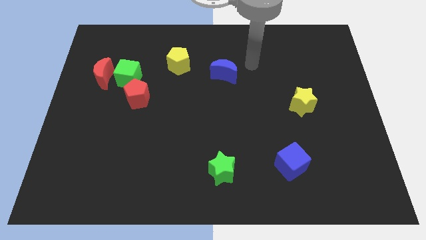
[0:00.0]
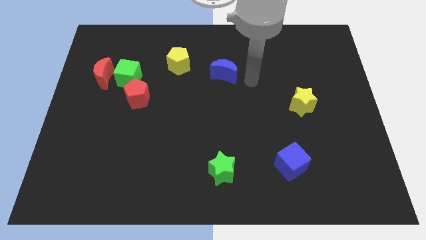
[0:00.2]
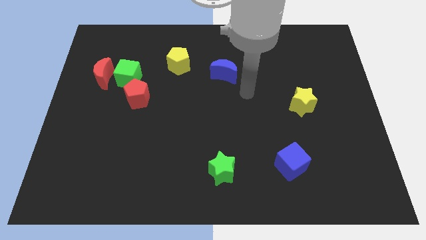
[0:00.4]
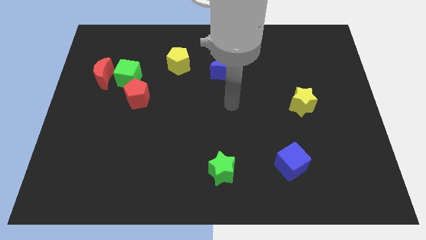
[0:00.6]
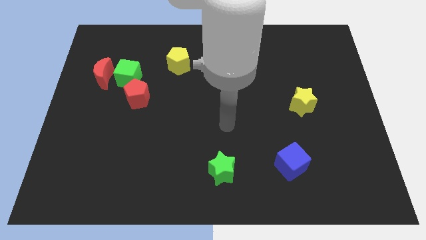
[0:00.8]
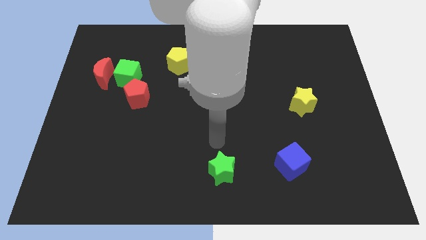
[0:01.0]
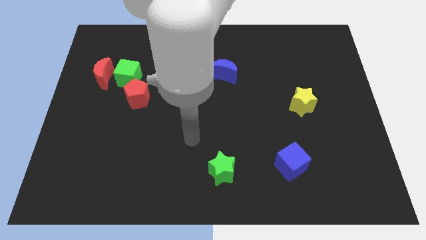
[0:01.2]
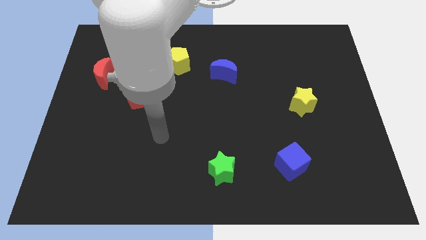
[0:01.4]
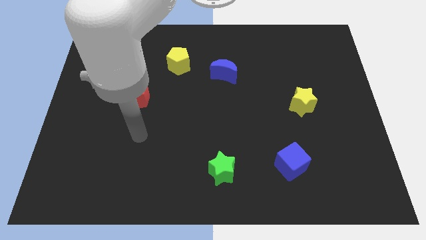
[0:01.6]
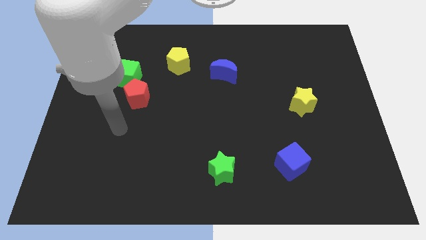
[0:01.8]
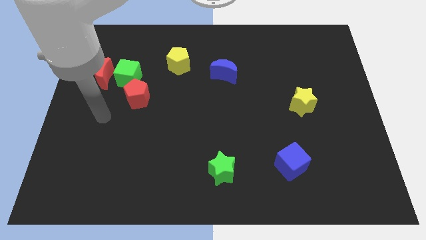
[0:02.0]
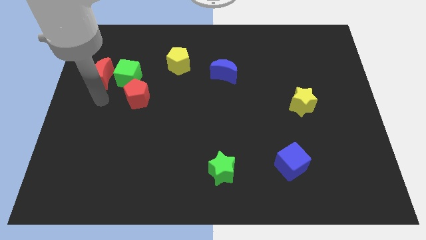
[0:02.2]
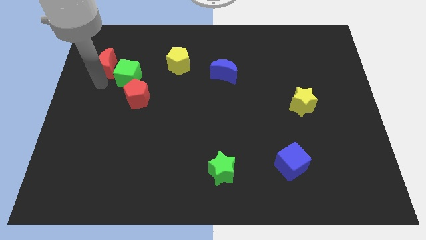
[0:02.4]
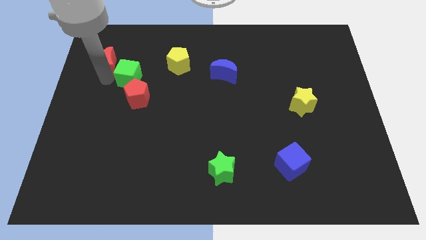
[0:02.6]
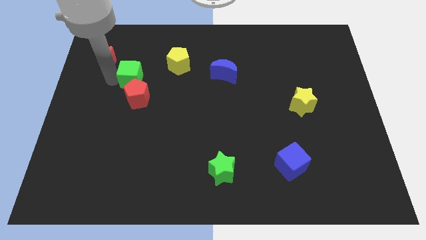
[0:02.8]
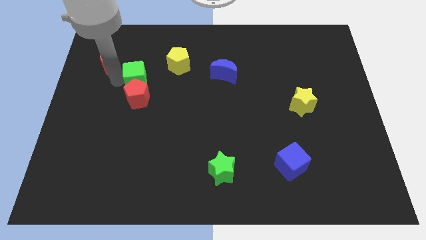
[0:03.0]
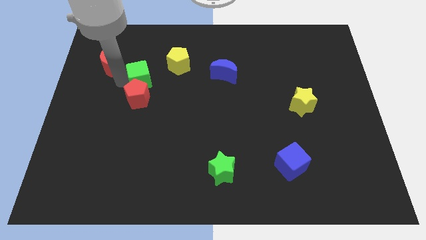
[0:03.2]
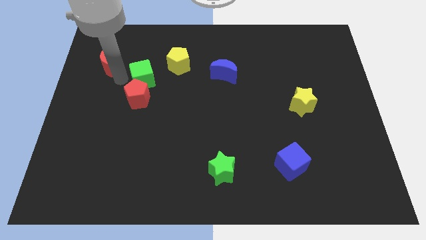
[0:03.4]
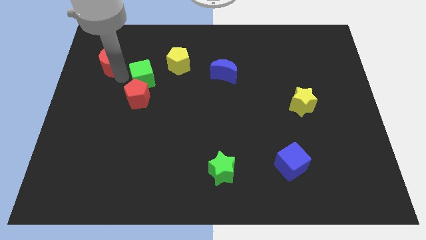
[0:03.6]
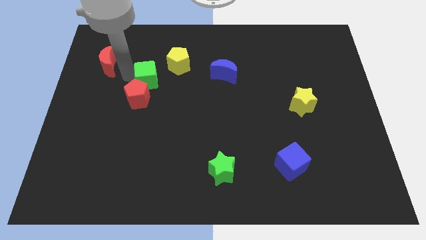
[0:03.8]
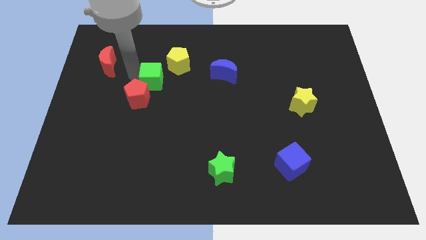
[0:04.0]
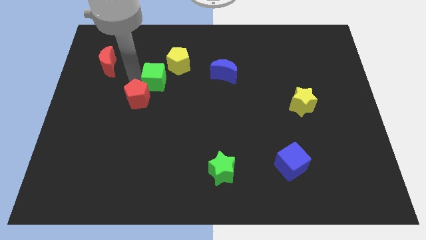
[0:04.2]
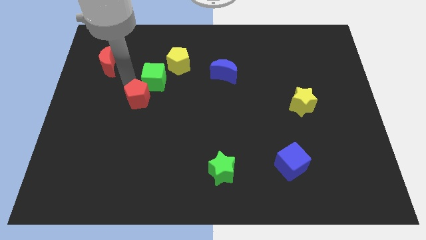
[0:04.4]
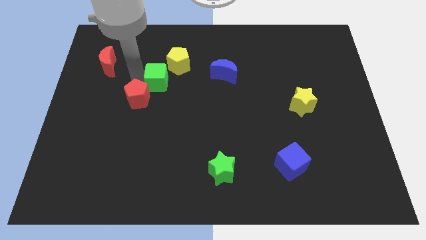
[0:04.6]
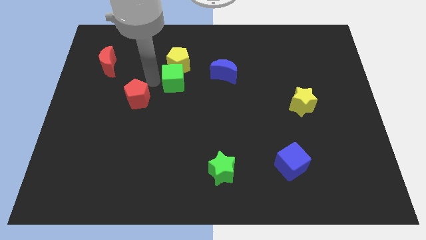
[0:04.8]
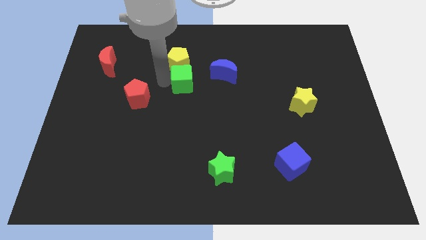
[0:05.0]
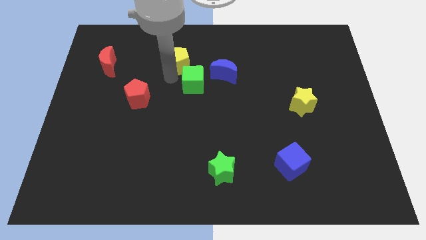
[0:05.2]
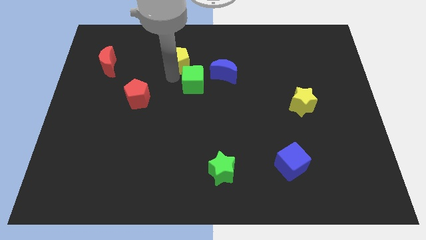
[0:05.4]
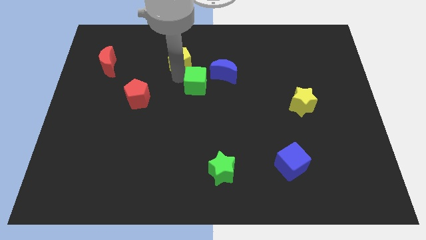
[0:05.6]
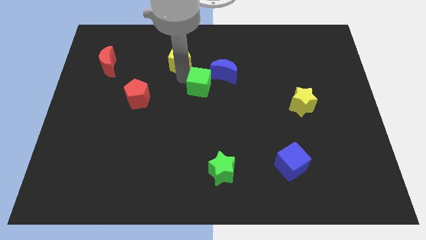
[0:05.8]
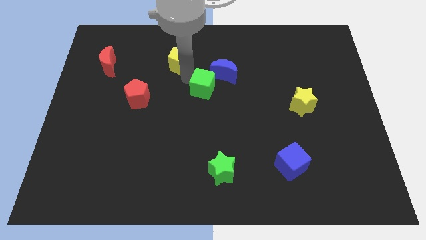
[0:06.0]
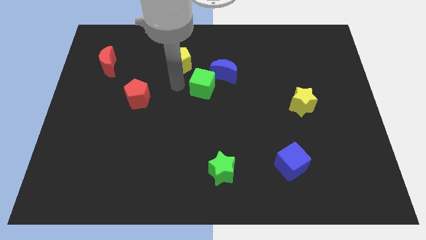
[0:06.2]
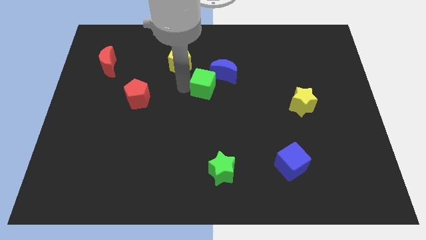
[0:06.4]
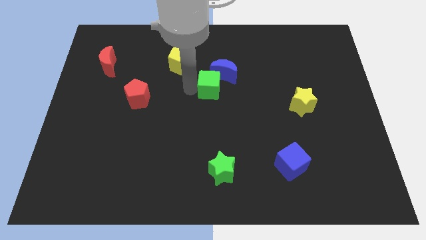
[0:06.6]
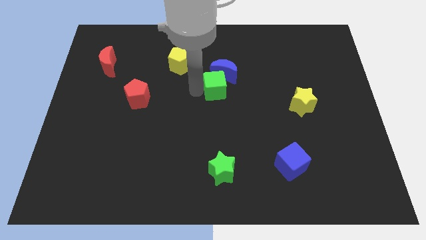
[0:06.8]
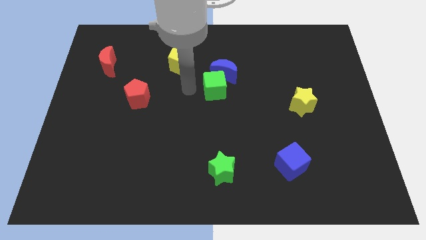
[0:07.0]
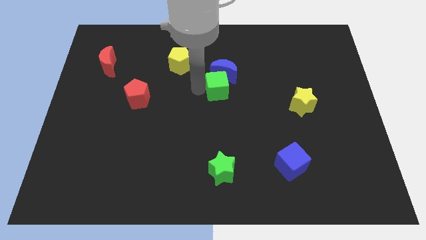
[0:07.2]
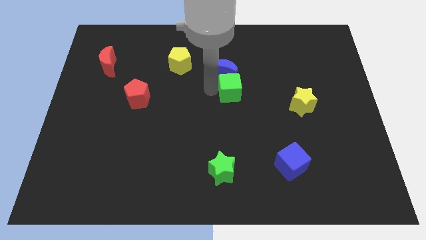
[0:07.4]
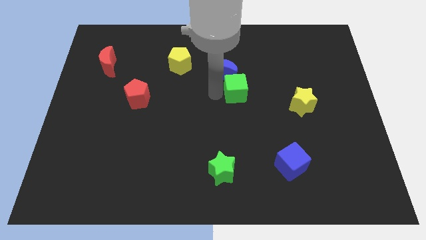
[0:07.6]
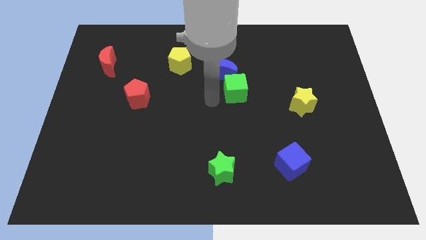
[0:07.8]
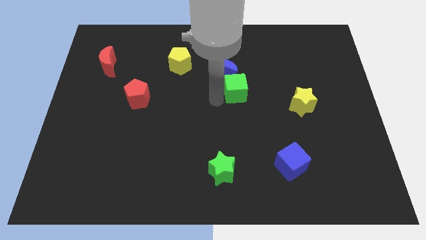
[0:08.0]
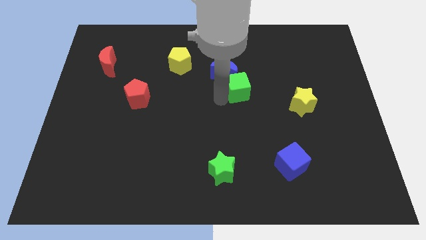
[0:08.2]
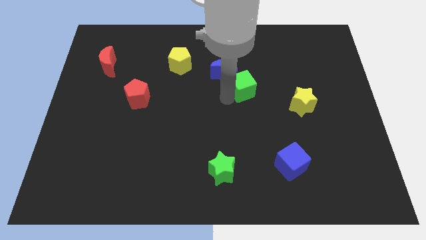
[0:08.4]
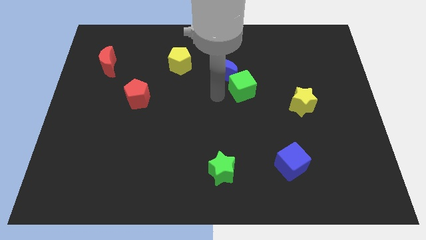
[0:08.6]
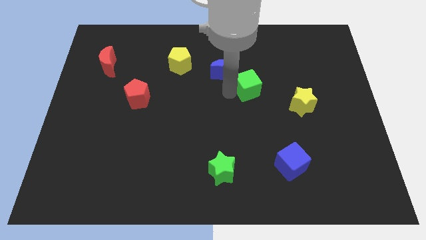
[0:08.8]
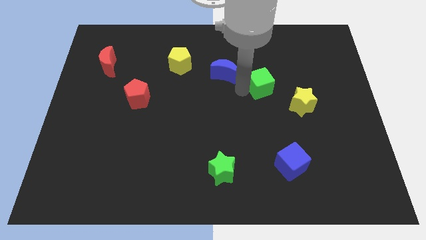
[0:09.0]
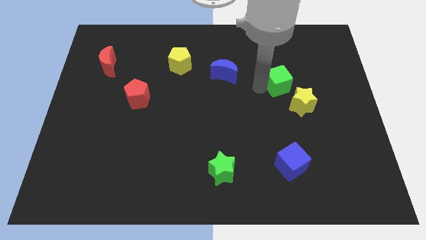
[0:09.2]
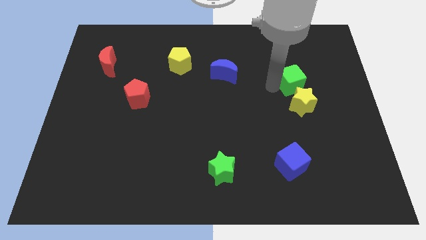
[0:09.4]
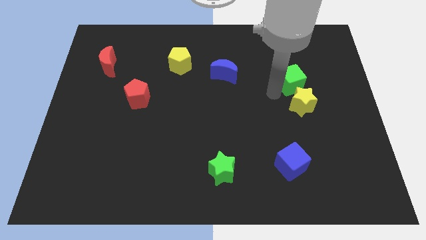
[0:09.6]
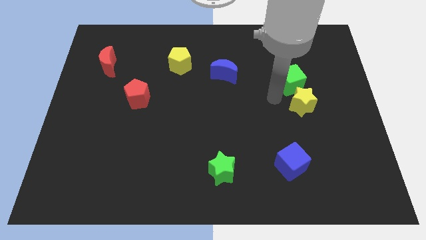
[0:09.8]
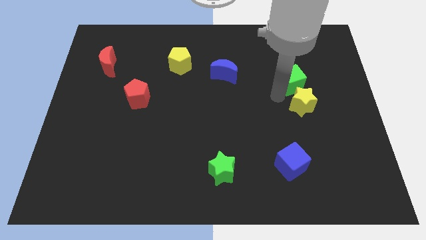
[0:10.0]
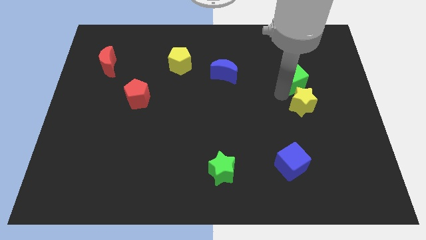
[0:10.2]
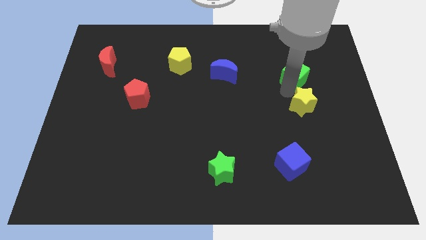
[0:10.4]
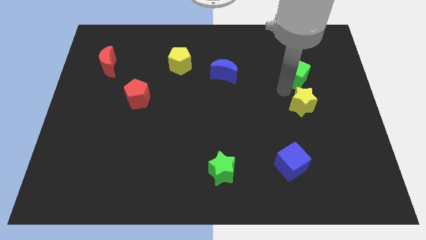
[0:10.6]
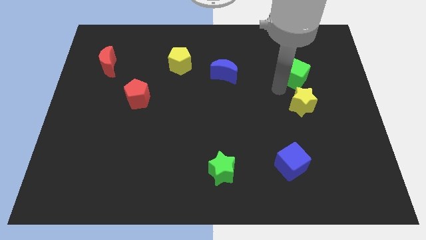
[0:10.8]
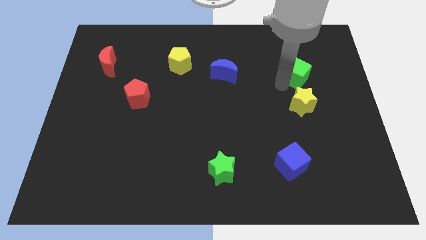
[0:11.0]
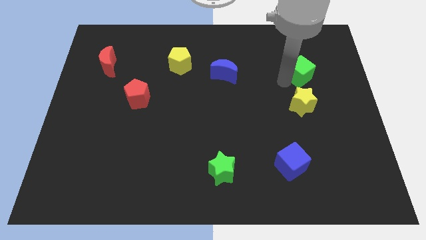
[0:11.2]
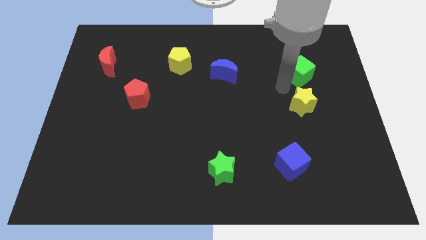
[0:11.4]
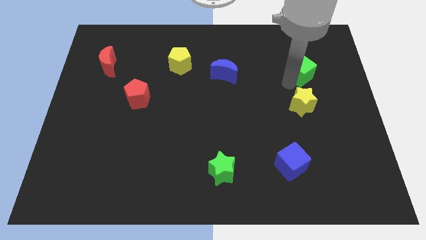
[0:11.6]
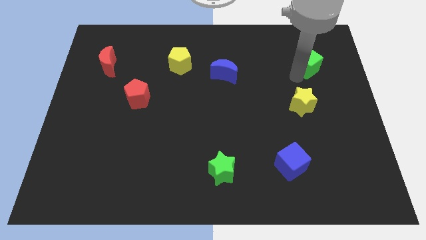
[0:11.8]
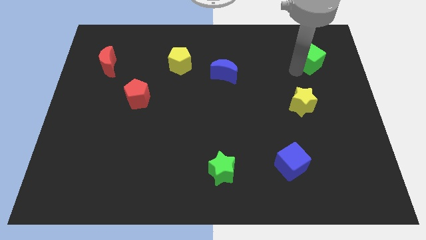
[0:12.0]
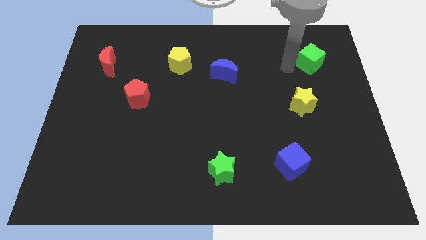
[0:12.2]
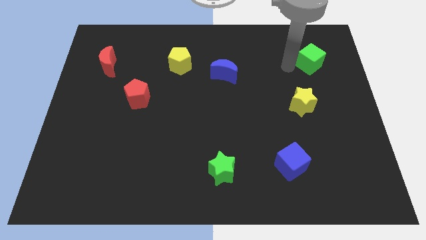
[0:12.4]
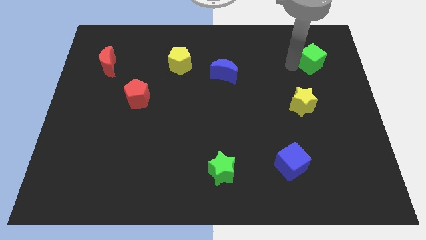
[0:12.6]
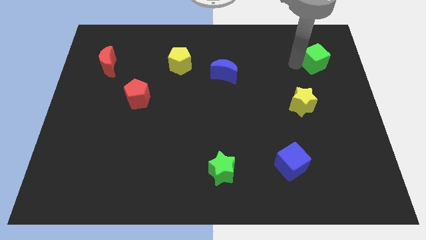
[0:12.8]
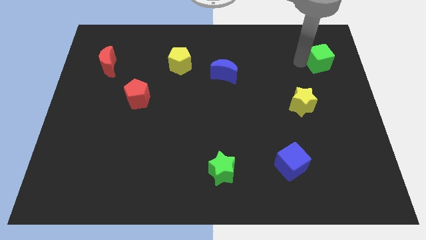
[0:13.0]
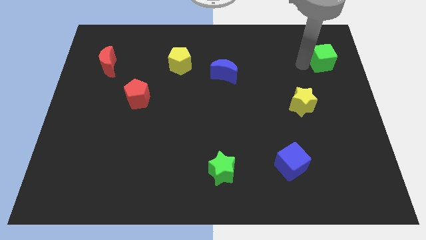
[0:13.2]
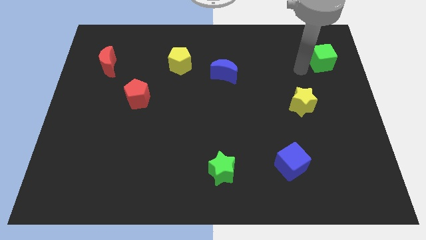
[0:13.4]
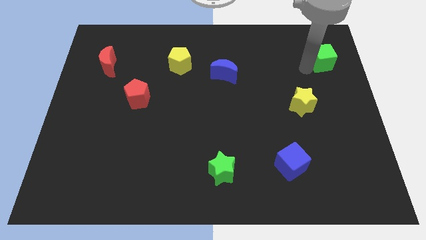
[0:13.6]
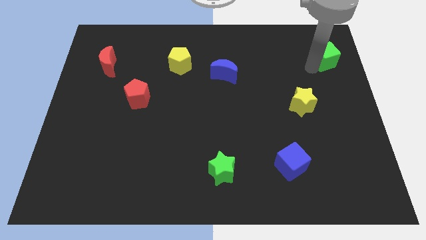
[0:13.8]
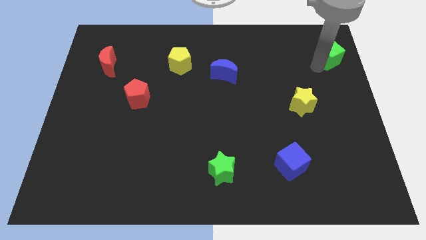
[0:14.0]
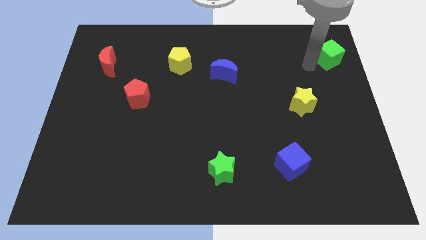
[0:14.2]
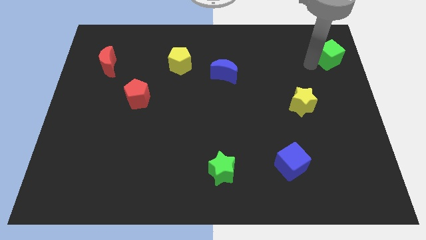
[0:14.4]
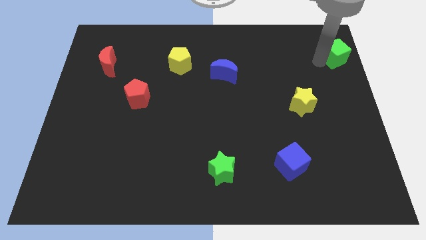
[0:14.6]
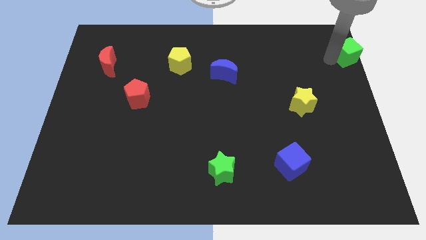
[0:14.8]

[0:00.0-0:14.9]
slide the green cube to the top right

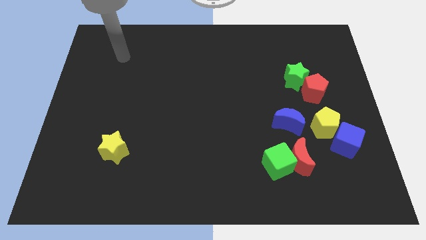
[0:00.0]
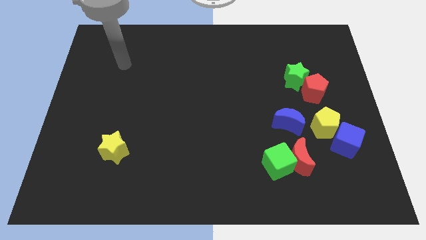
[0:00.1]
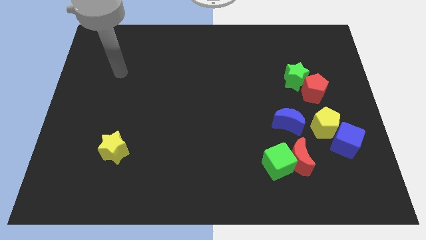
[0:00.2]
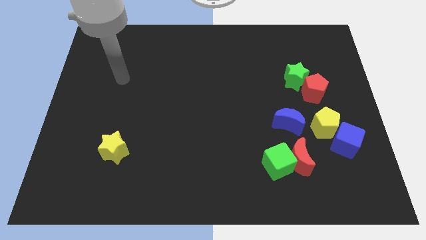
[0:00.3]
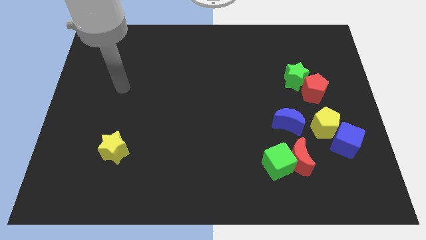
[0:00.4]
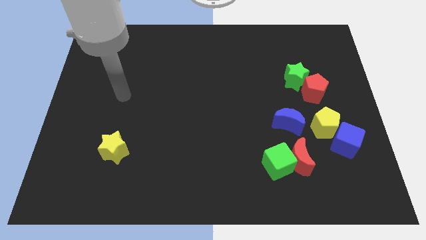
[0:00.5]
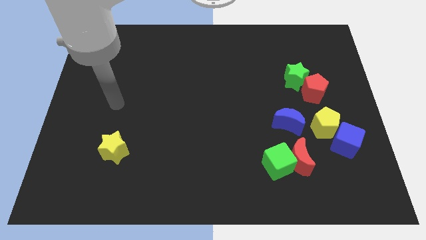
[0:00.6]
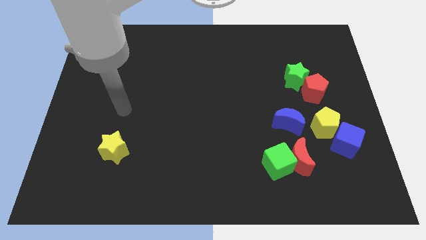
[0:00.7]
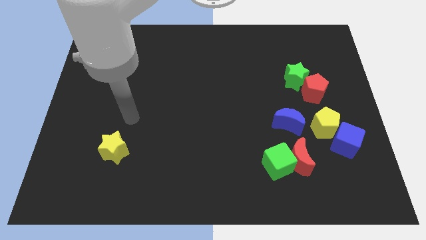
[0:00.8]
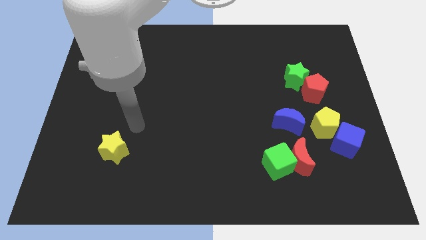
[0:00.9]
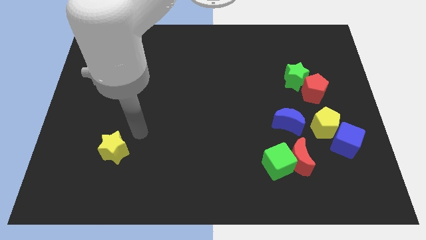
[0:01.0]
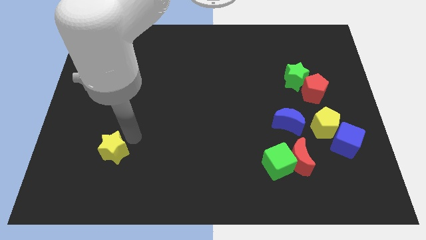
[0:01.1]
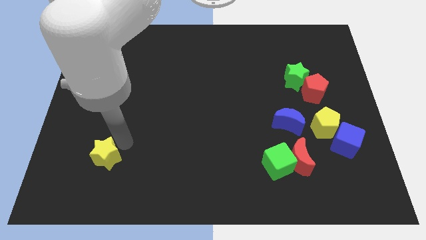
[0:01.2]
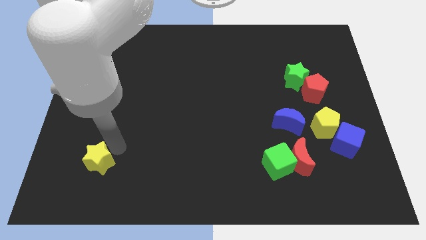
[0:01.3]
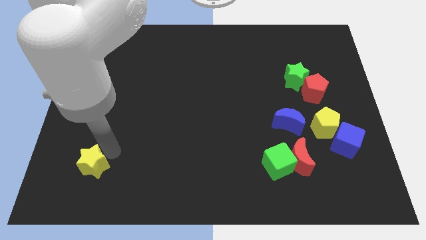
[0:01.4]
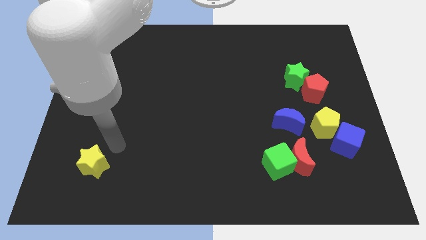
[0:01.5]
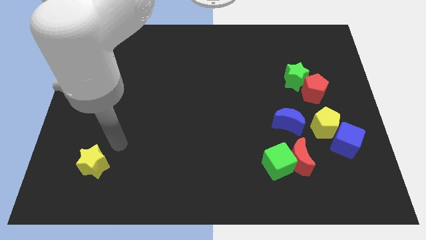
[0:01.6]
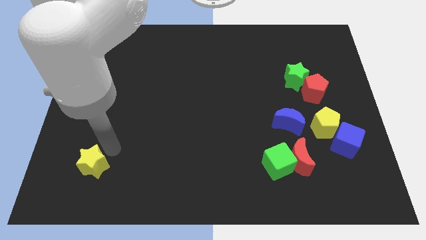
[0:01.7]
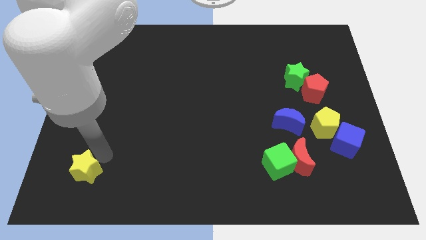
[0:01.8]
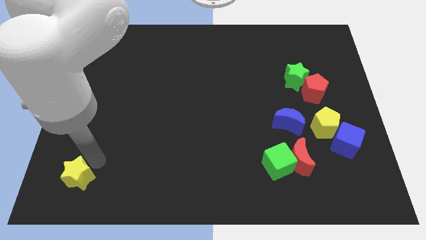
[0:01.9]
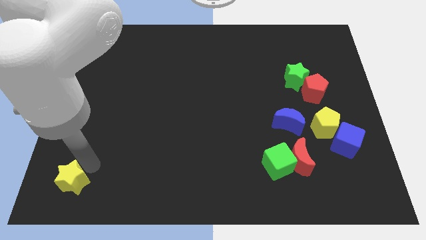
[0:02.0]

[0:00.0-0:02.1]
put the yellow star to the bottom left of the board
